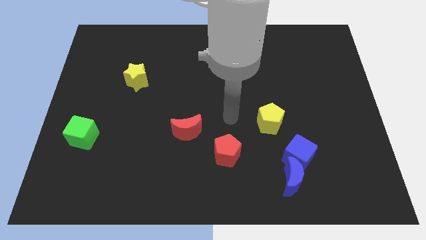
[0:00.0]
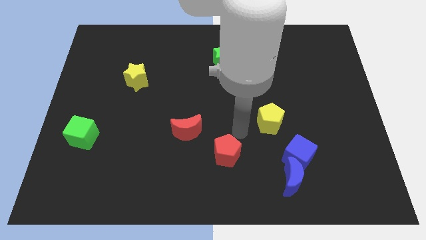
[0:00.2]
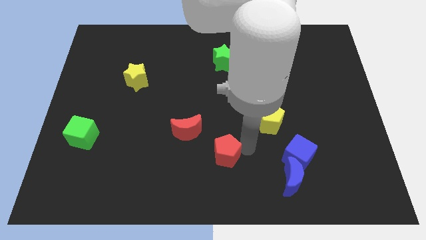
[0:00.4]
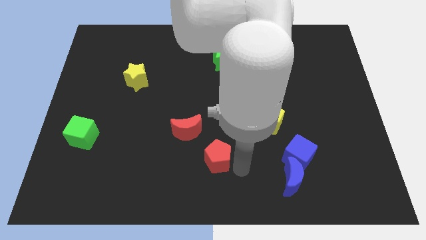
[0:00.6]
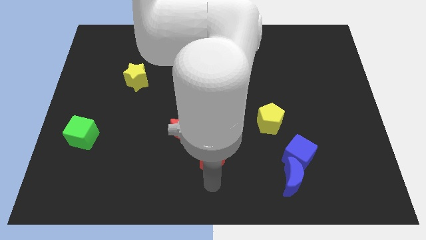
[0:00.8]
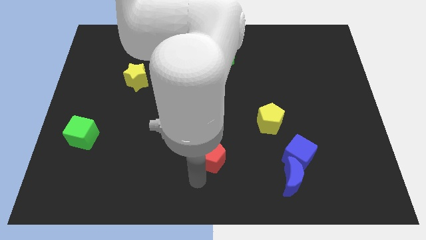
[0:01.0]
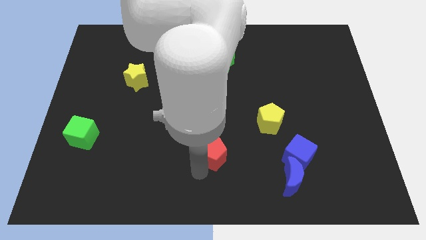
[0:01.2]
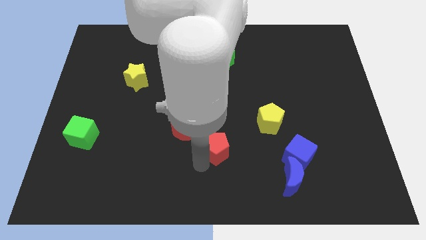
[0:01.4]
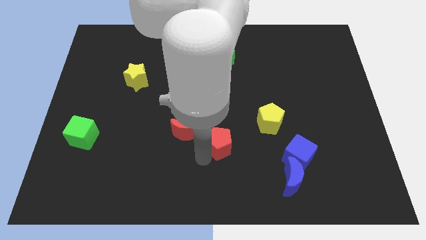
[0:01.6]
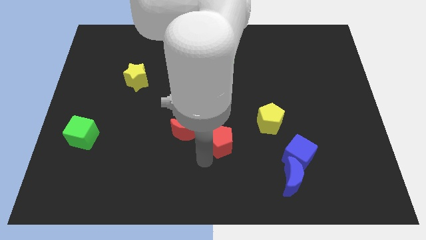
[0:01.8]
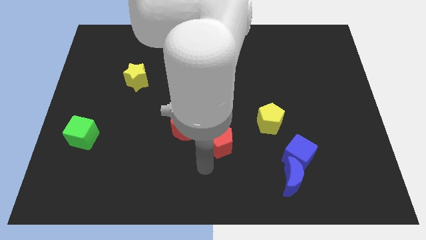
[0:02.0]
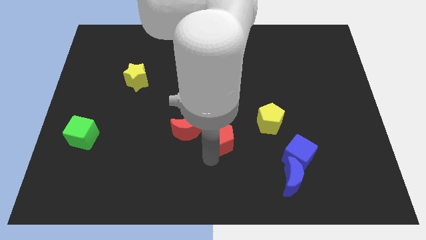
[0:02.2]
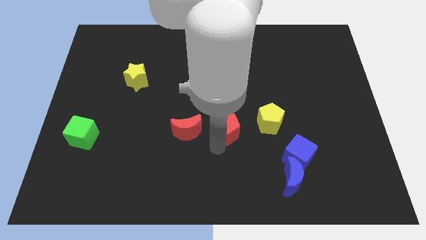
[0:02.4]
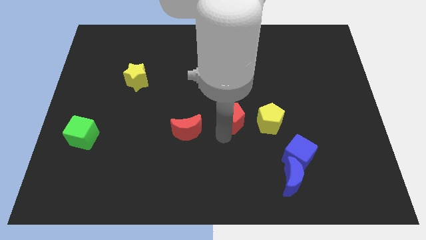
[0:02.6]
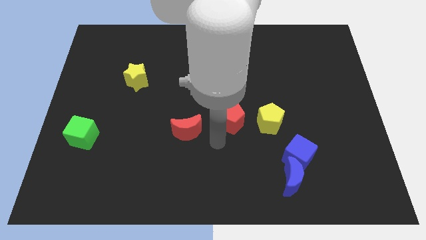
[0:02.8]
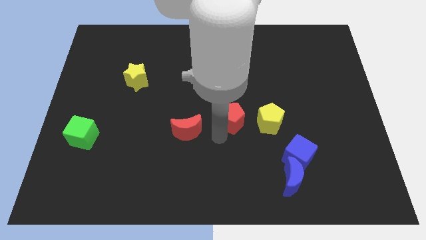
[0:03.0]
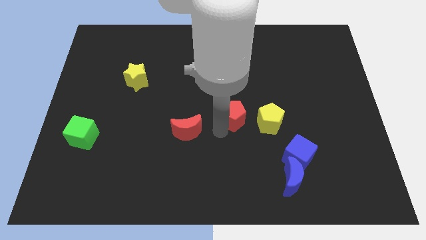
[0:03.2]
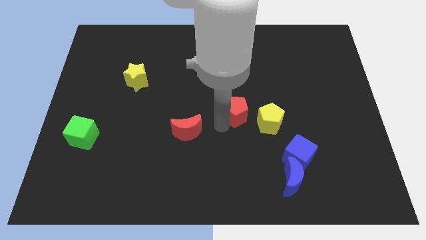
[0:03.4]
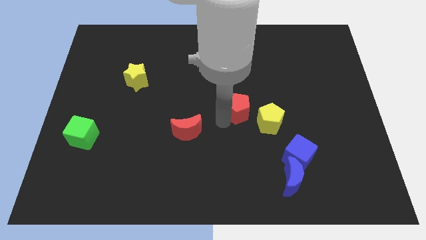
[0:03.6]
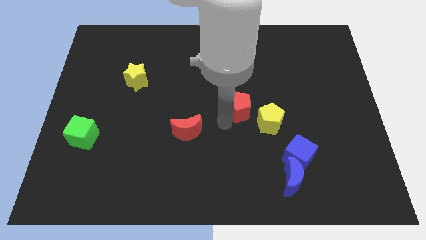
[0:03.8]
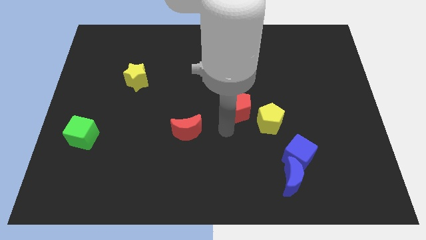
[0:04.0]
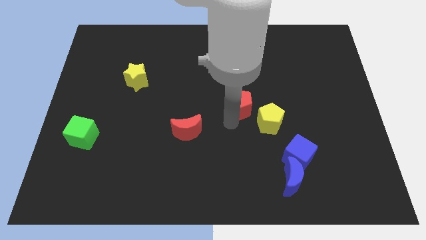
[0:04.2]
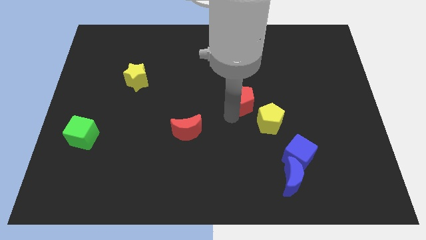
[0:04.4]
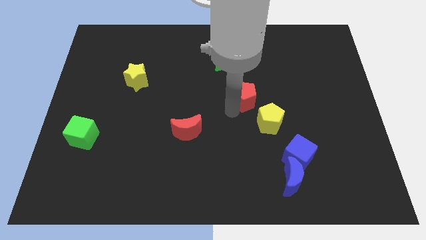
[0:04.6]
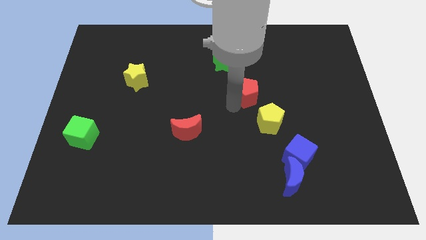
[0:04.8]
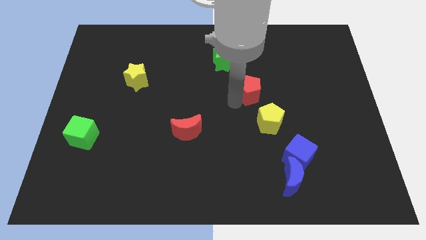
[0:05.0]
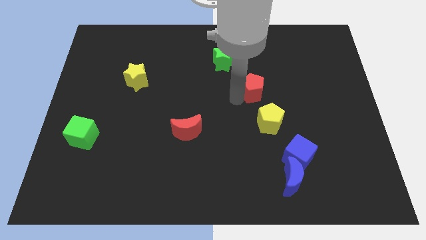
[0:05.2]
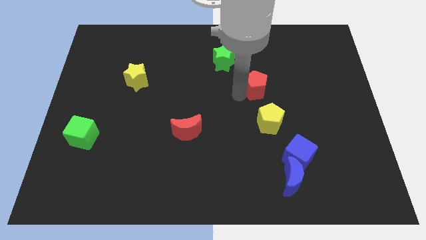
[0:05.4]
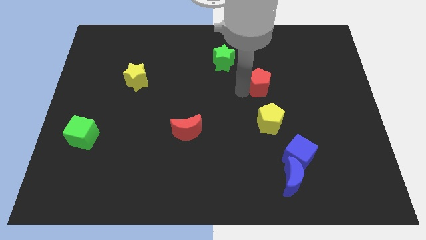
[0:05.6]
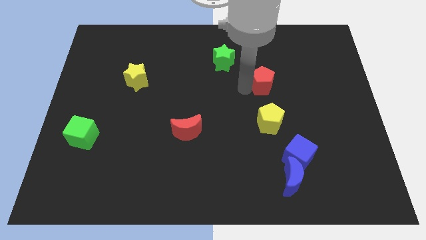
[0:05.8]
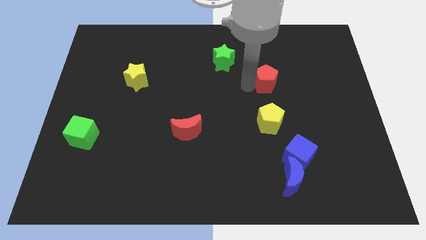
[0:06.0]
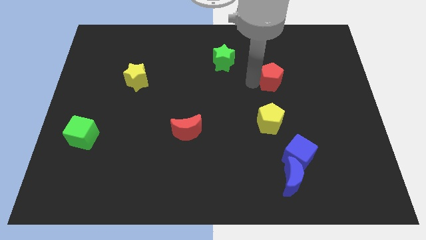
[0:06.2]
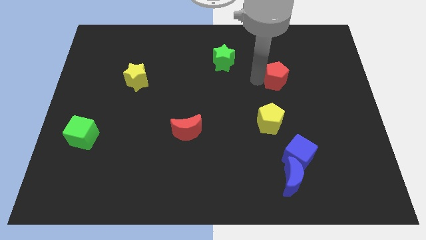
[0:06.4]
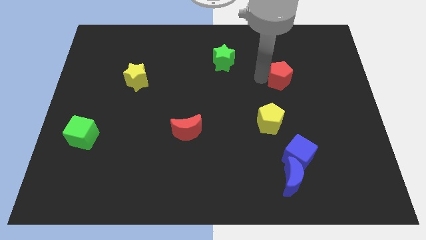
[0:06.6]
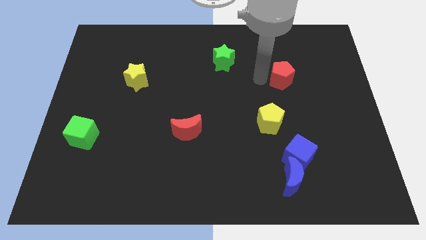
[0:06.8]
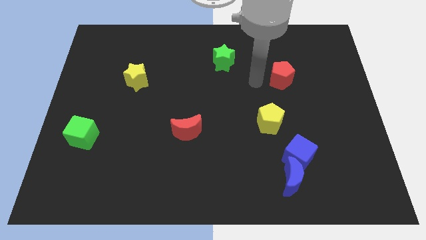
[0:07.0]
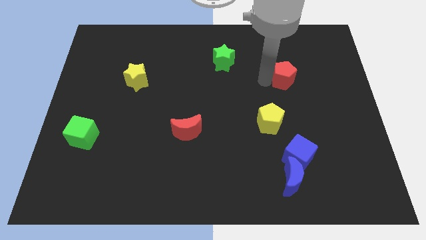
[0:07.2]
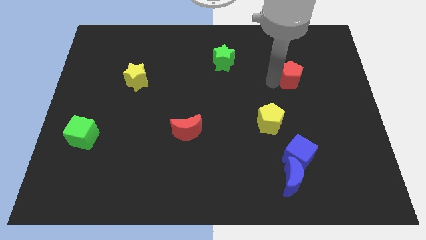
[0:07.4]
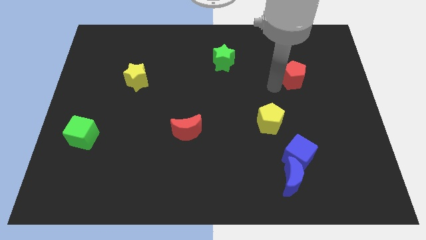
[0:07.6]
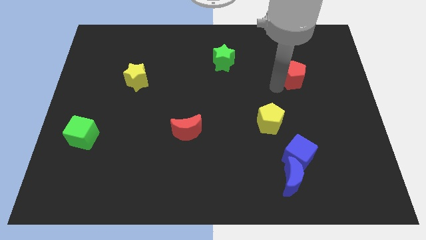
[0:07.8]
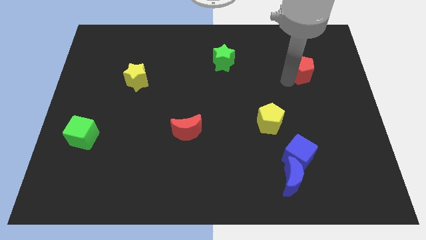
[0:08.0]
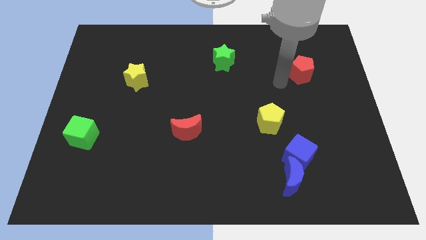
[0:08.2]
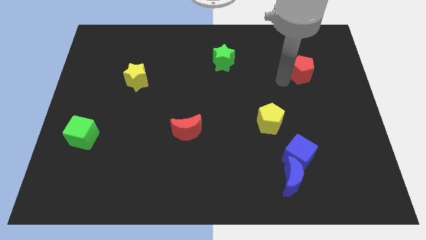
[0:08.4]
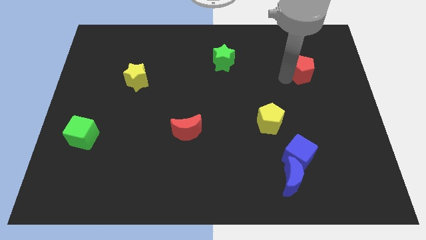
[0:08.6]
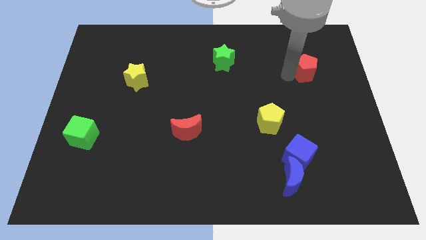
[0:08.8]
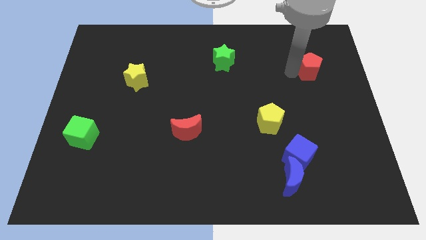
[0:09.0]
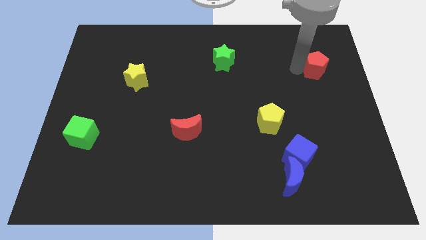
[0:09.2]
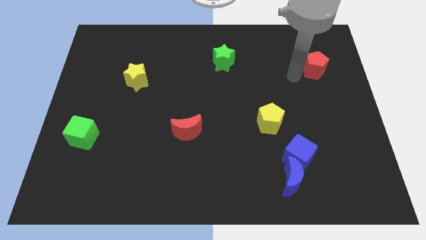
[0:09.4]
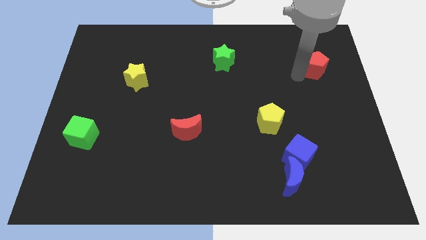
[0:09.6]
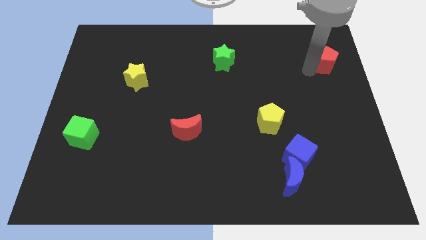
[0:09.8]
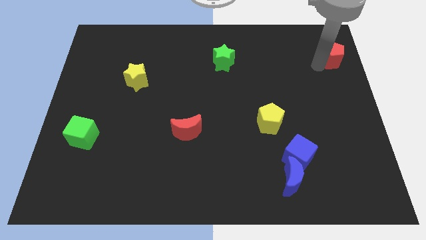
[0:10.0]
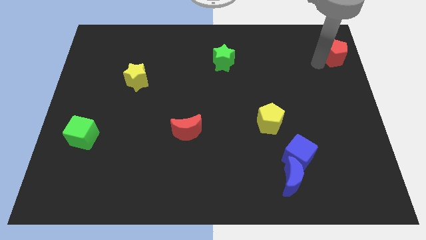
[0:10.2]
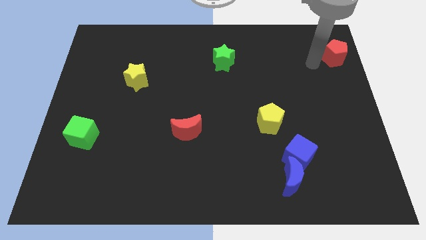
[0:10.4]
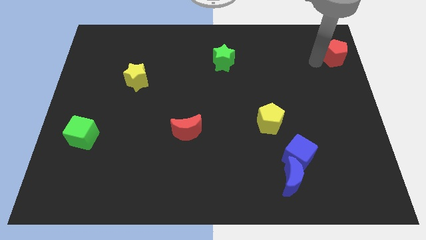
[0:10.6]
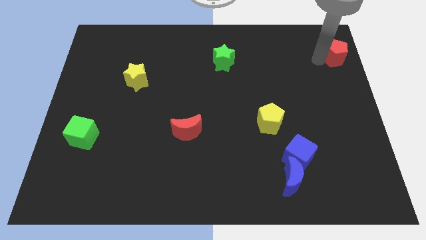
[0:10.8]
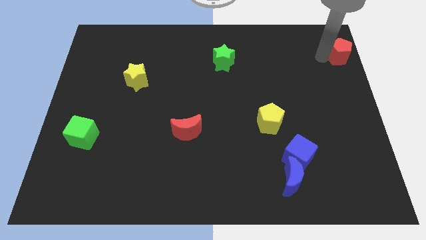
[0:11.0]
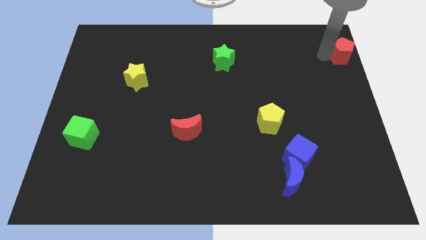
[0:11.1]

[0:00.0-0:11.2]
put the red pentagon to the top right corner

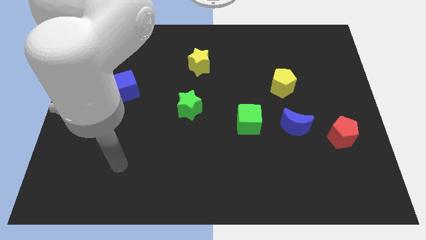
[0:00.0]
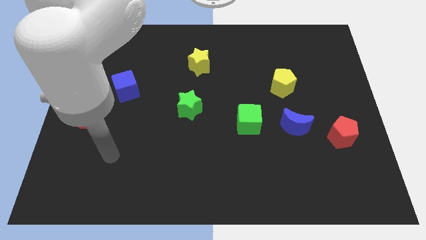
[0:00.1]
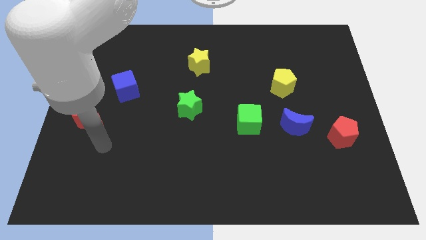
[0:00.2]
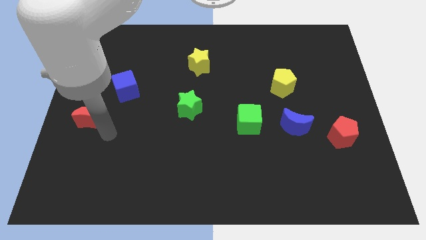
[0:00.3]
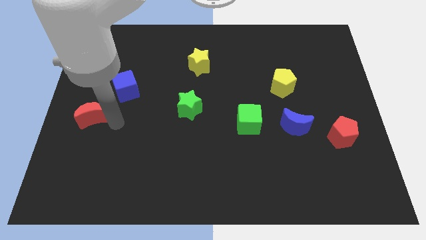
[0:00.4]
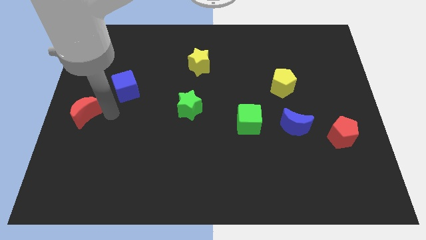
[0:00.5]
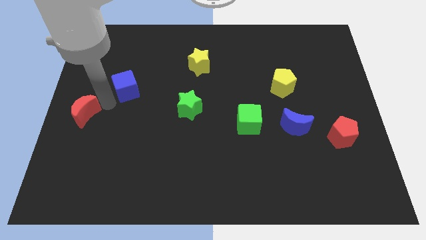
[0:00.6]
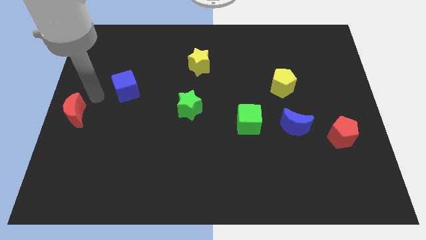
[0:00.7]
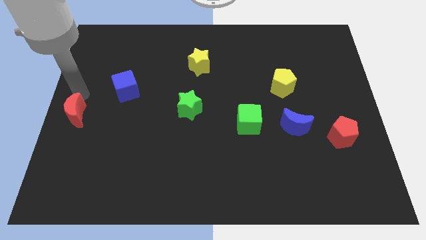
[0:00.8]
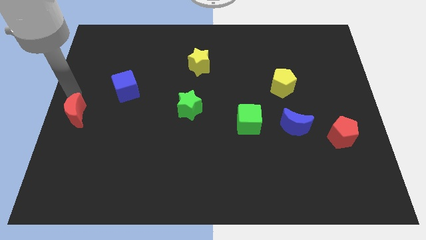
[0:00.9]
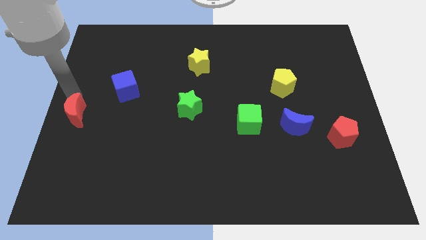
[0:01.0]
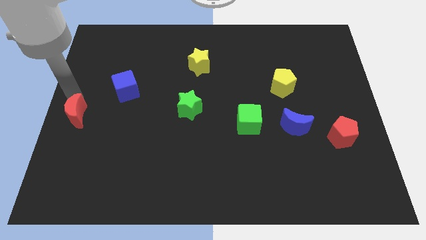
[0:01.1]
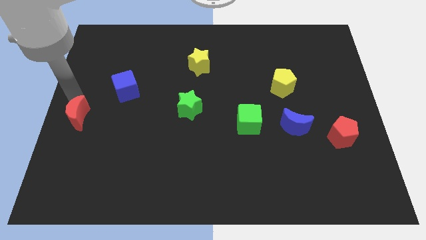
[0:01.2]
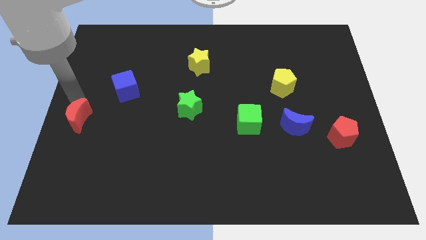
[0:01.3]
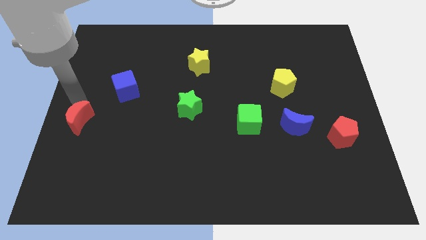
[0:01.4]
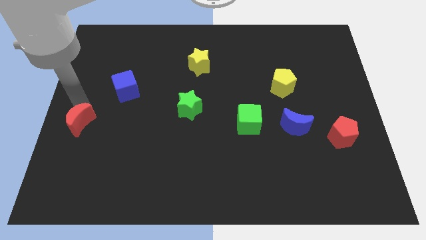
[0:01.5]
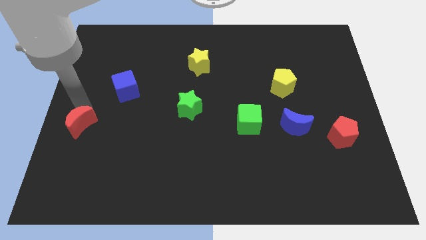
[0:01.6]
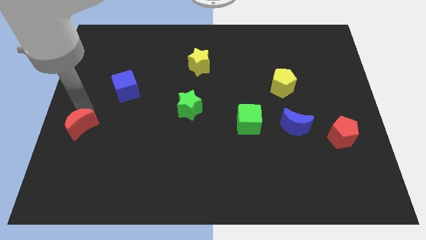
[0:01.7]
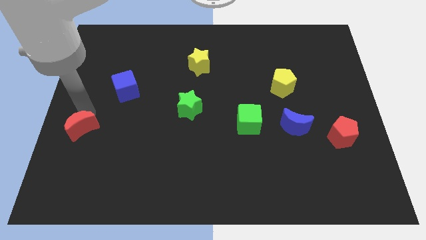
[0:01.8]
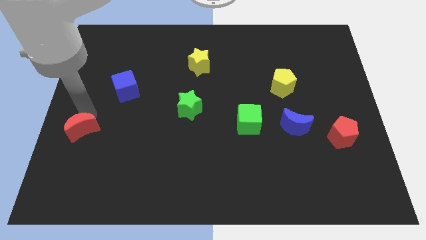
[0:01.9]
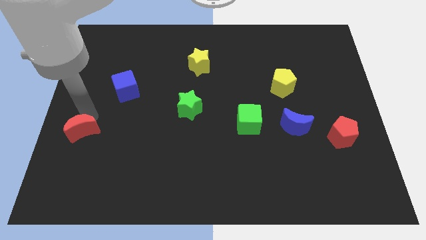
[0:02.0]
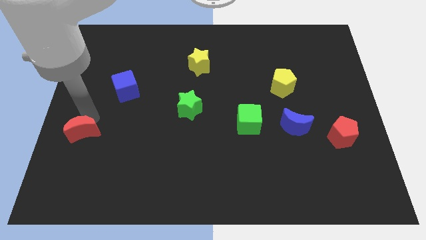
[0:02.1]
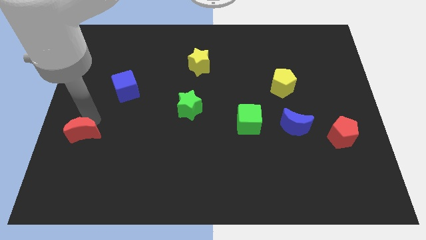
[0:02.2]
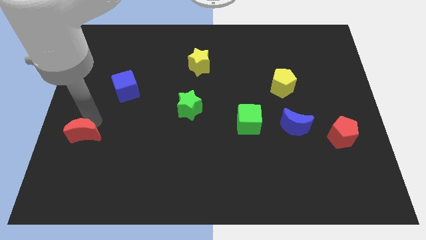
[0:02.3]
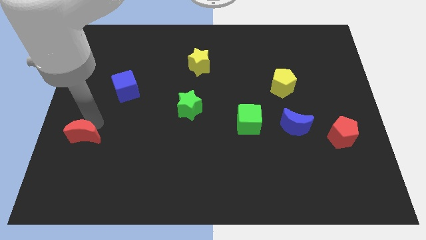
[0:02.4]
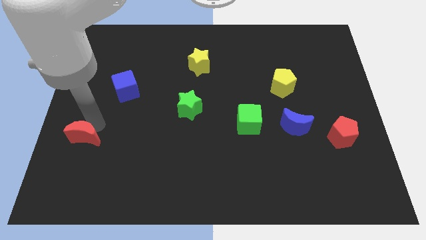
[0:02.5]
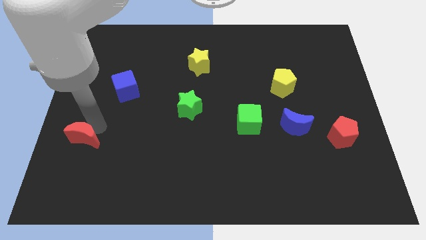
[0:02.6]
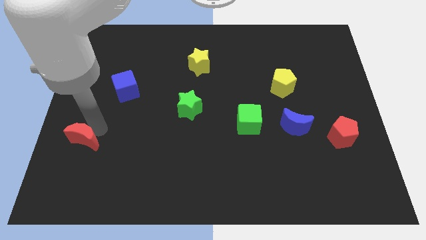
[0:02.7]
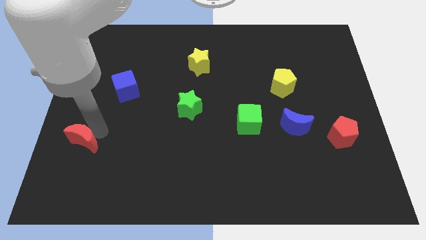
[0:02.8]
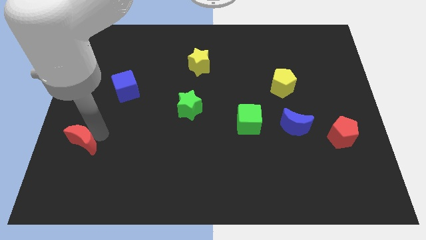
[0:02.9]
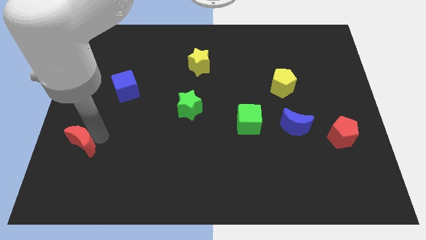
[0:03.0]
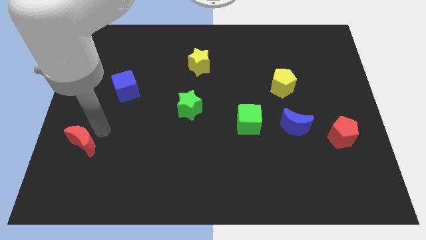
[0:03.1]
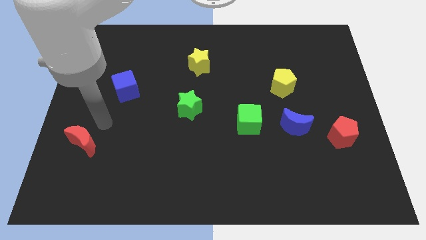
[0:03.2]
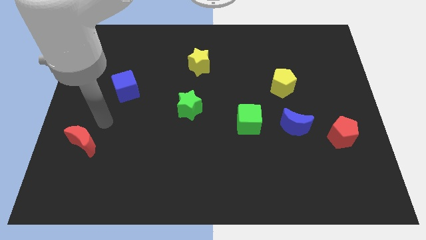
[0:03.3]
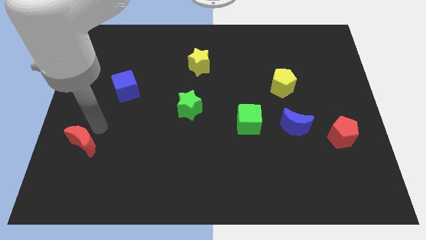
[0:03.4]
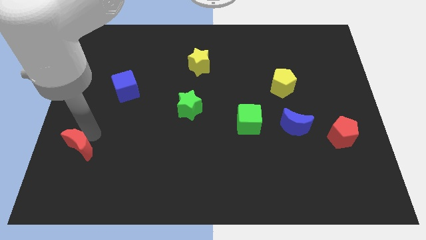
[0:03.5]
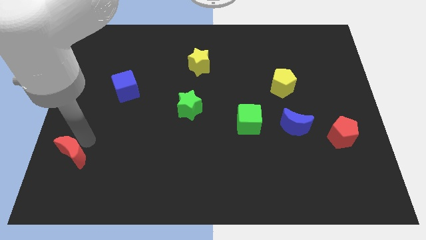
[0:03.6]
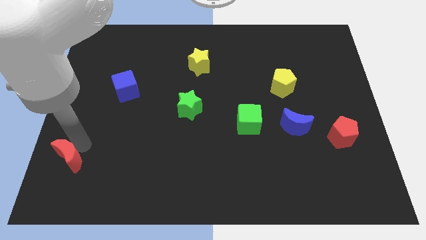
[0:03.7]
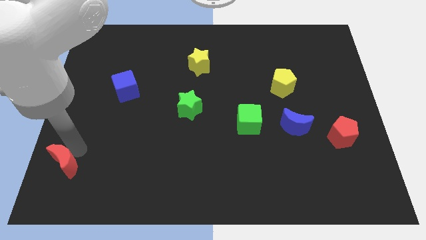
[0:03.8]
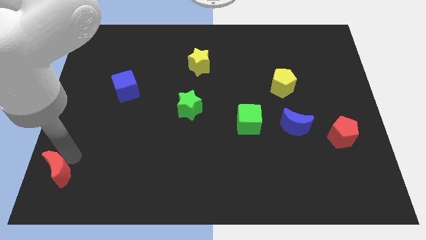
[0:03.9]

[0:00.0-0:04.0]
move the red moon to the lower left corner
